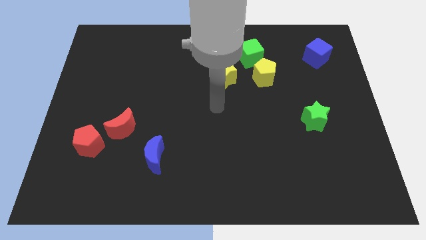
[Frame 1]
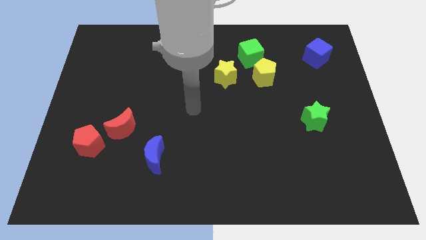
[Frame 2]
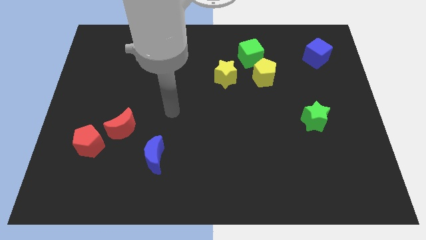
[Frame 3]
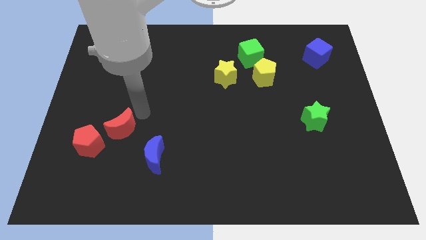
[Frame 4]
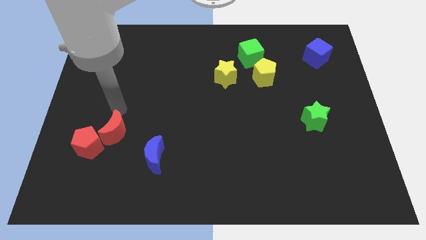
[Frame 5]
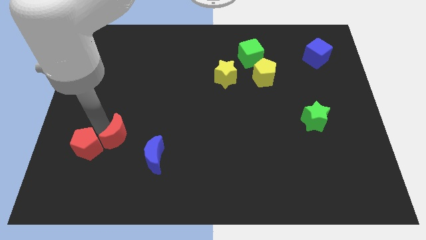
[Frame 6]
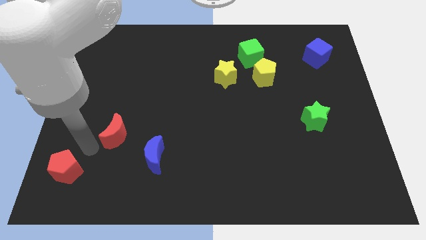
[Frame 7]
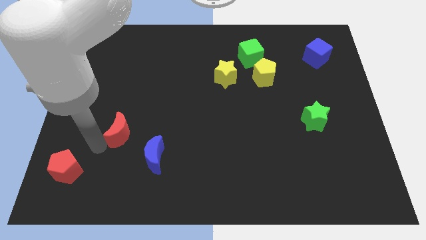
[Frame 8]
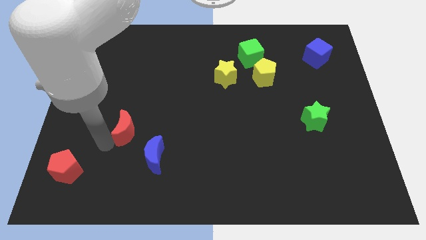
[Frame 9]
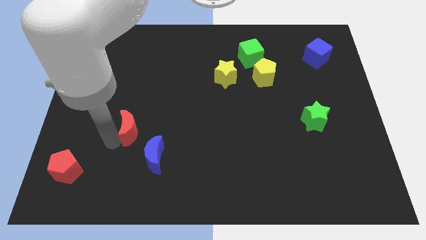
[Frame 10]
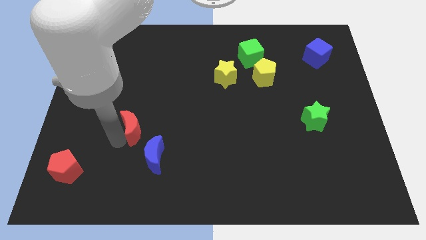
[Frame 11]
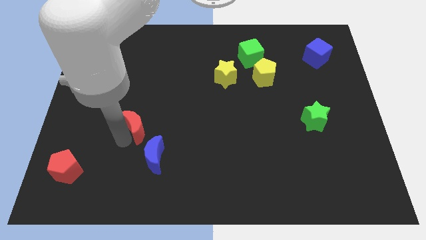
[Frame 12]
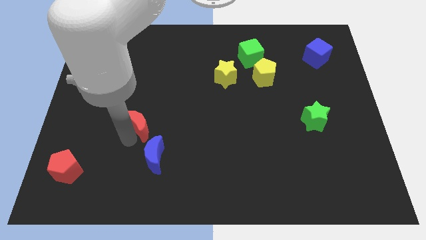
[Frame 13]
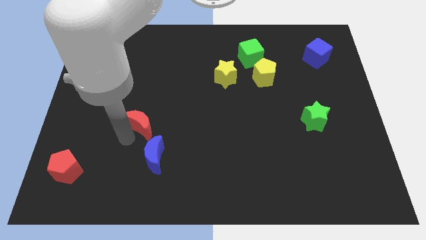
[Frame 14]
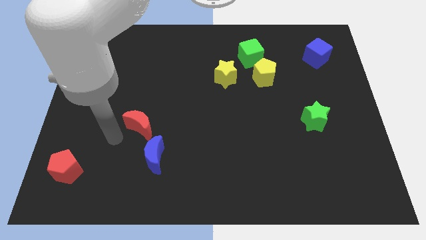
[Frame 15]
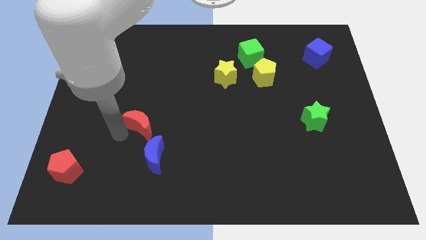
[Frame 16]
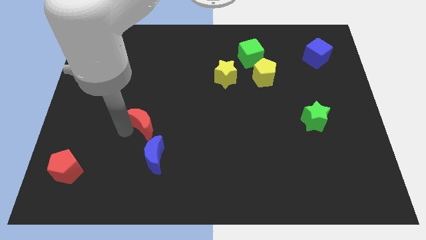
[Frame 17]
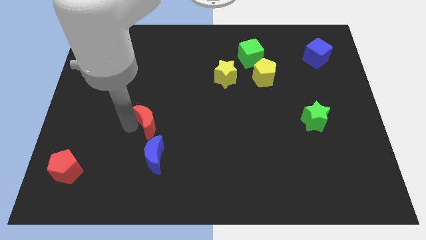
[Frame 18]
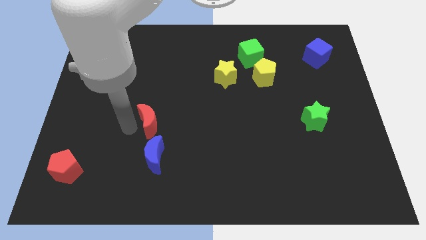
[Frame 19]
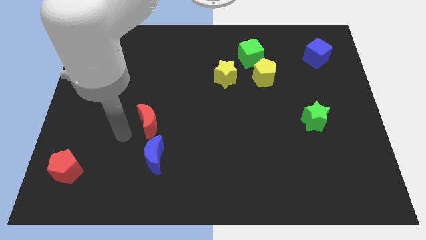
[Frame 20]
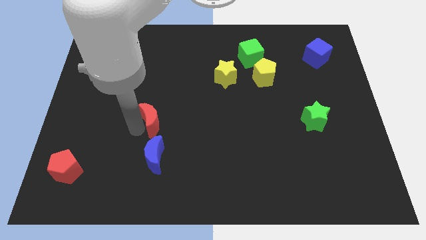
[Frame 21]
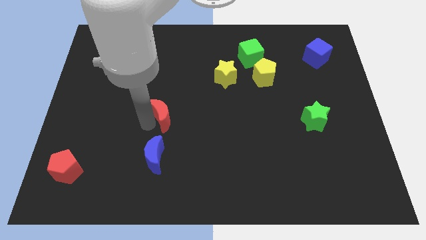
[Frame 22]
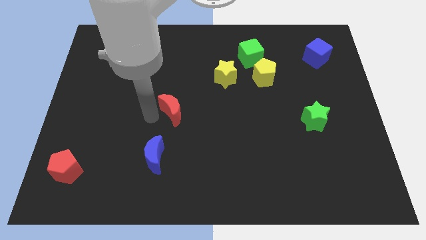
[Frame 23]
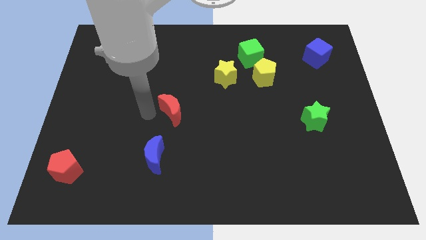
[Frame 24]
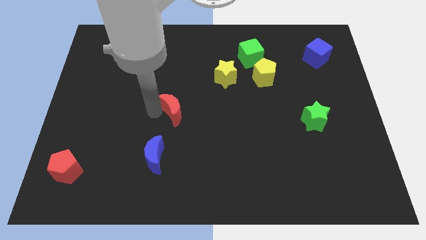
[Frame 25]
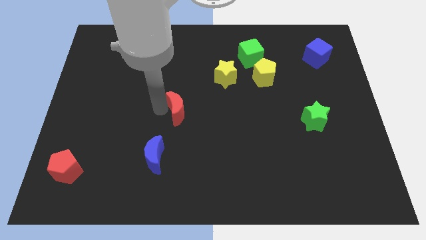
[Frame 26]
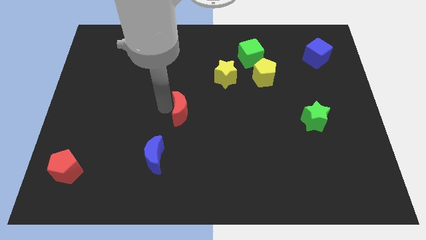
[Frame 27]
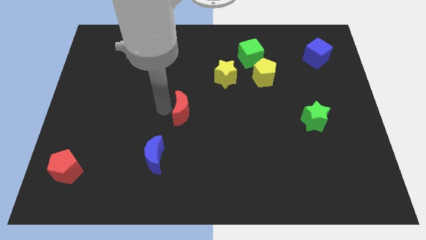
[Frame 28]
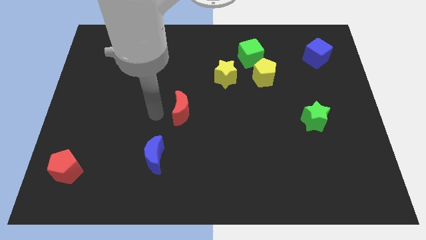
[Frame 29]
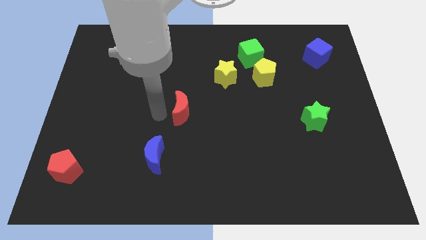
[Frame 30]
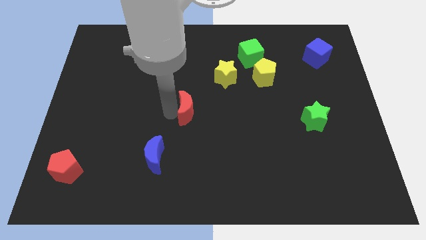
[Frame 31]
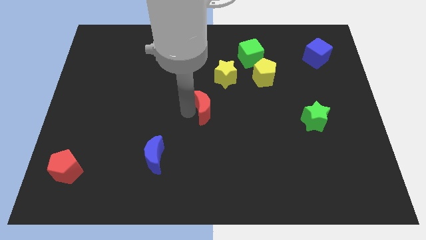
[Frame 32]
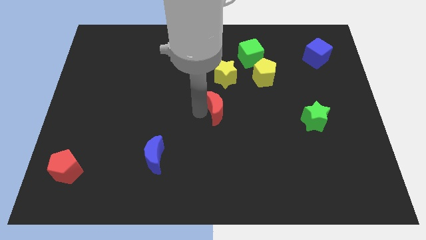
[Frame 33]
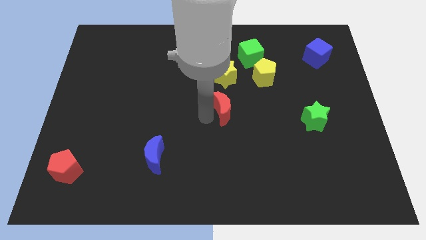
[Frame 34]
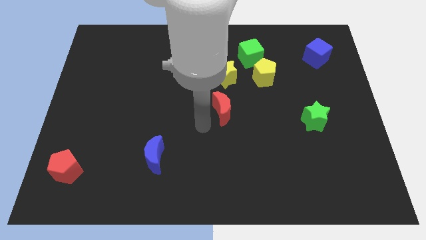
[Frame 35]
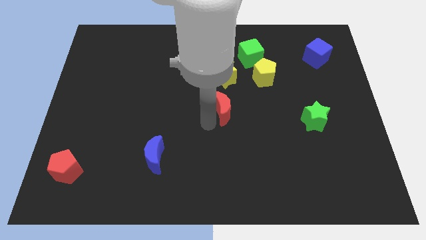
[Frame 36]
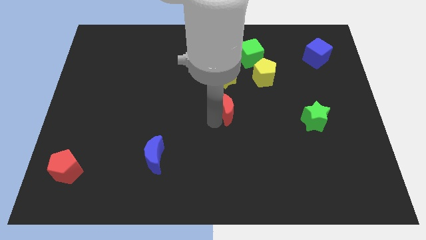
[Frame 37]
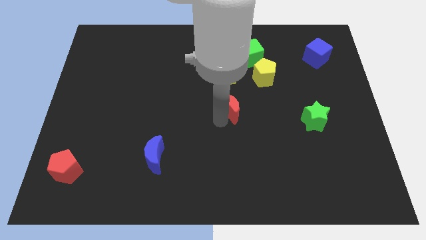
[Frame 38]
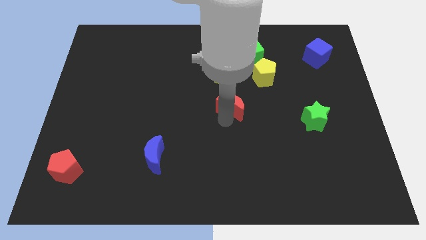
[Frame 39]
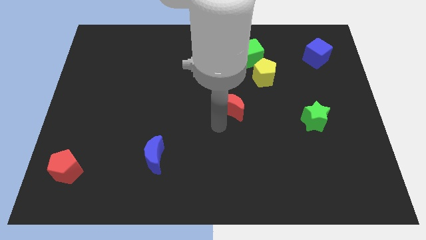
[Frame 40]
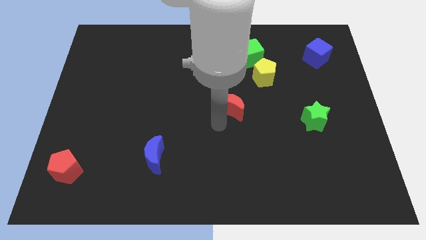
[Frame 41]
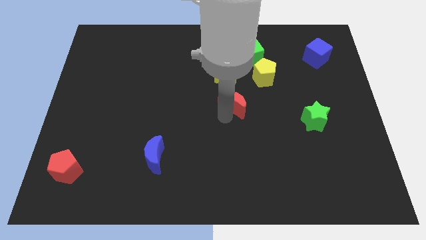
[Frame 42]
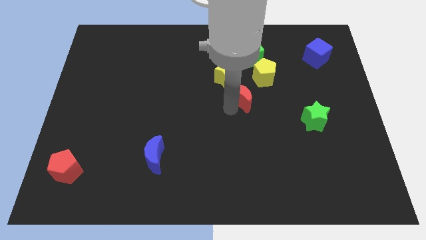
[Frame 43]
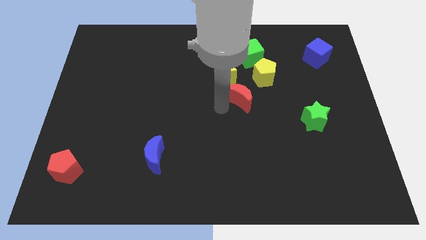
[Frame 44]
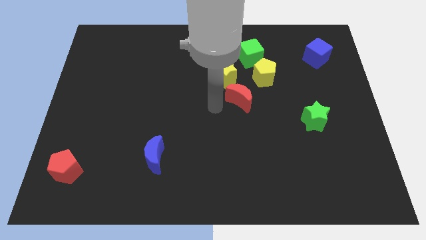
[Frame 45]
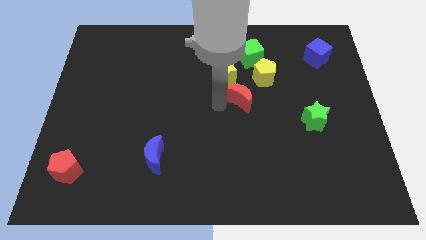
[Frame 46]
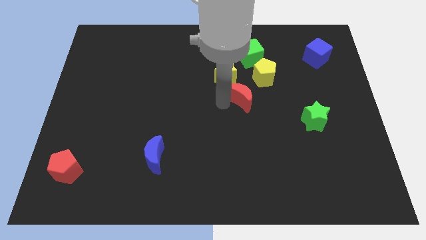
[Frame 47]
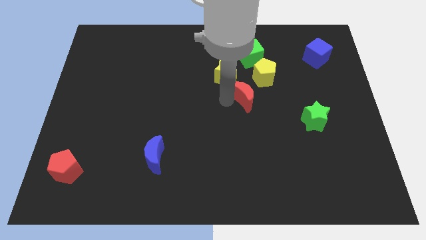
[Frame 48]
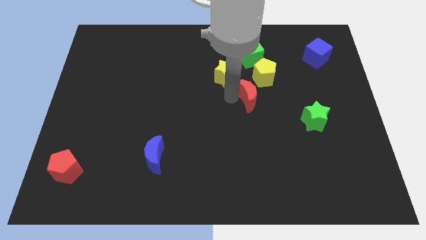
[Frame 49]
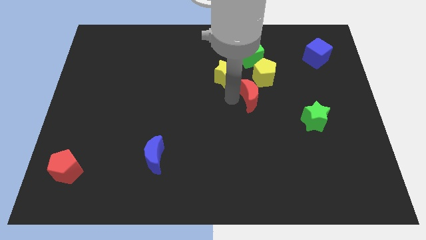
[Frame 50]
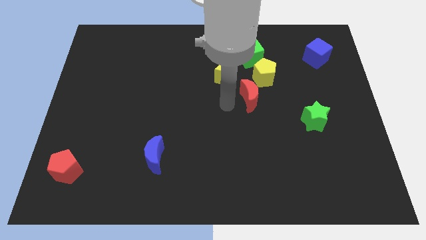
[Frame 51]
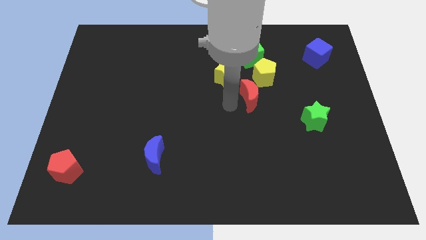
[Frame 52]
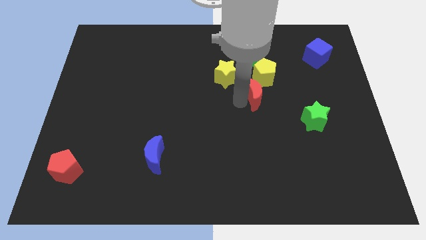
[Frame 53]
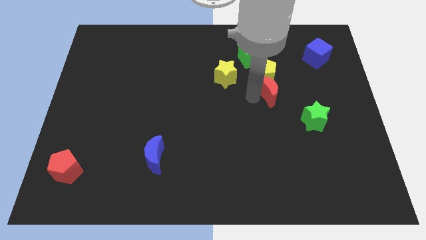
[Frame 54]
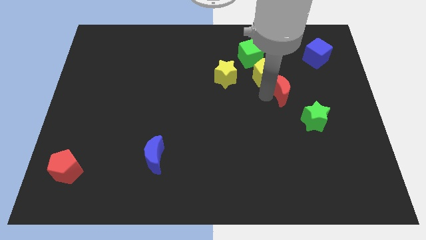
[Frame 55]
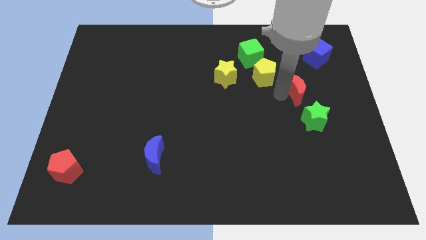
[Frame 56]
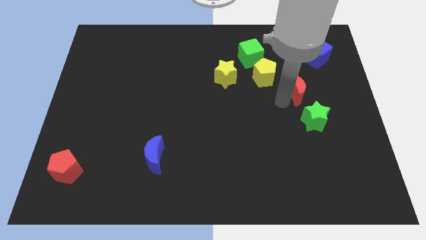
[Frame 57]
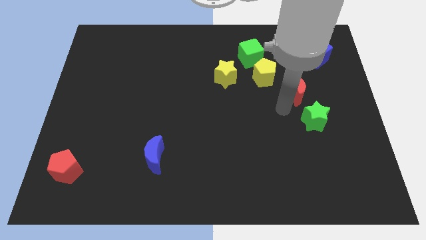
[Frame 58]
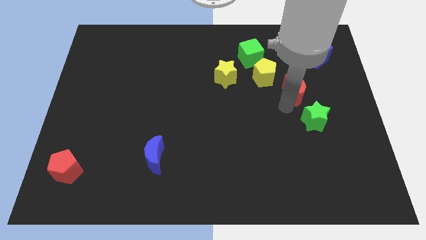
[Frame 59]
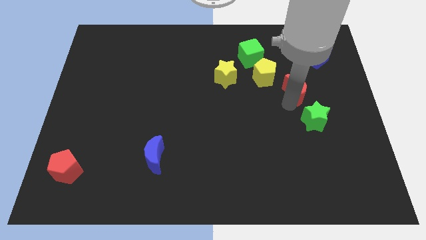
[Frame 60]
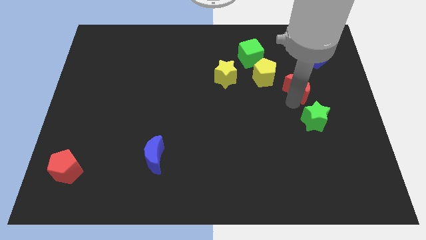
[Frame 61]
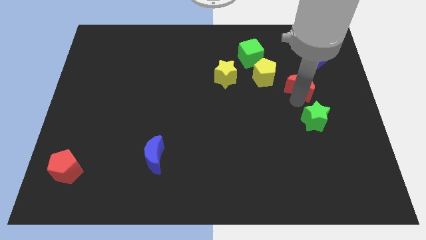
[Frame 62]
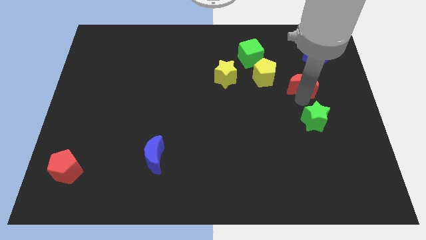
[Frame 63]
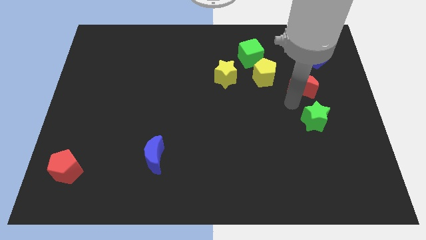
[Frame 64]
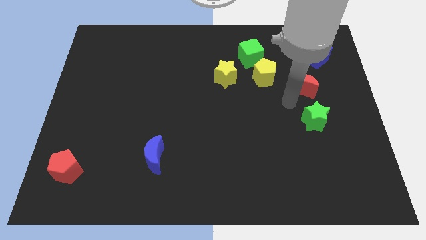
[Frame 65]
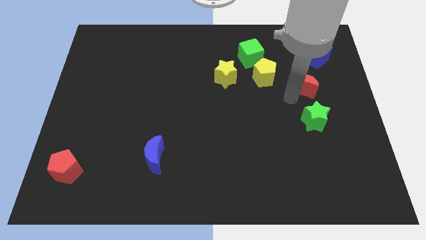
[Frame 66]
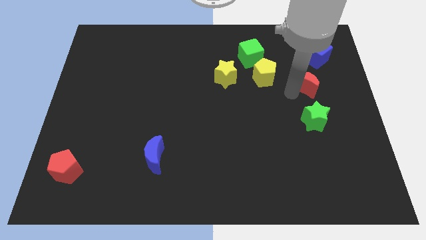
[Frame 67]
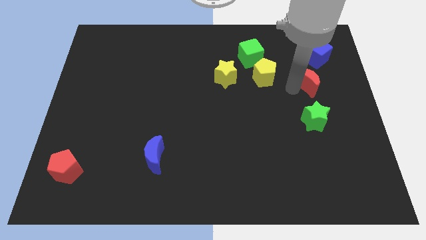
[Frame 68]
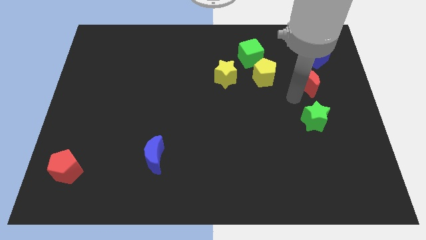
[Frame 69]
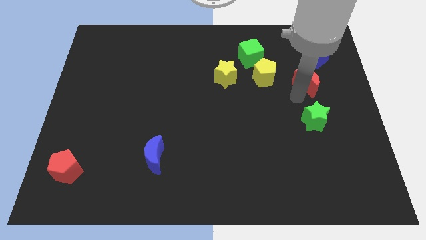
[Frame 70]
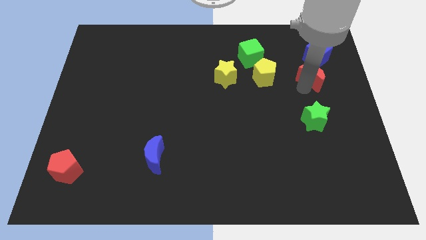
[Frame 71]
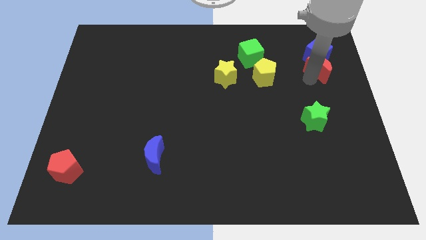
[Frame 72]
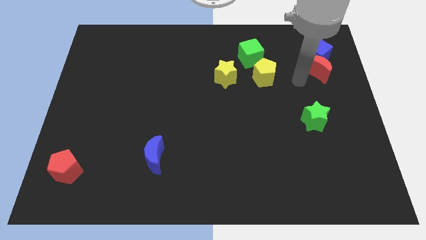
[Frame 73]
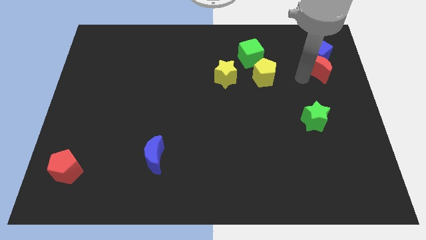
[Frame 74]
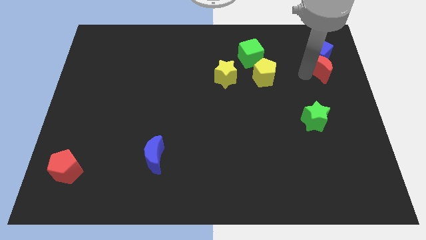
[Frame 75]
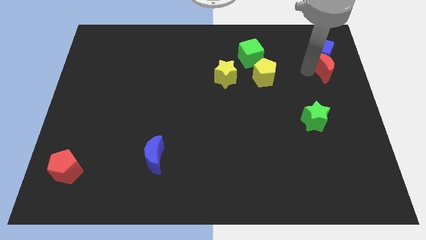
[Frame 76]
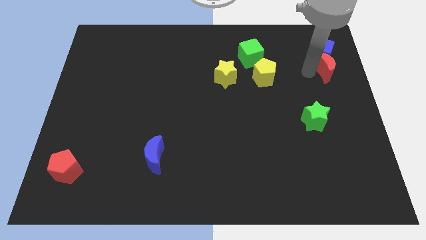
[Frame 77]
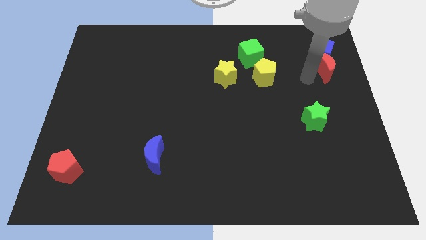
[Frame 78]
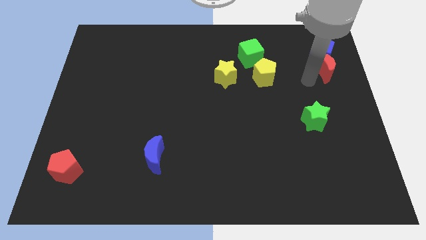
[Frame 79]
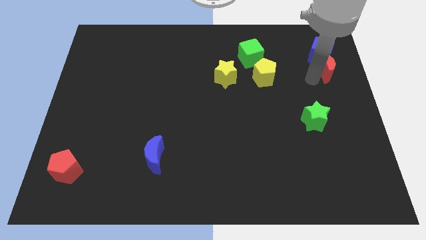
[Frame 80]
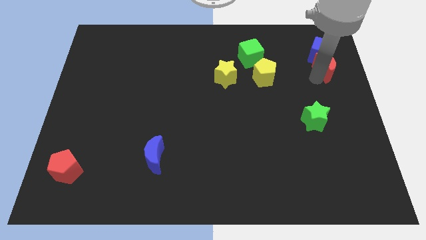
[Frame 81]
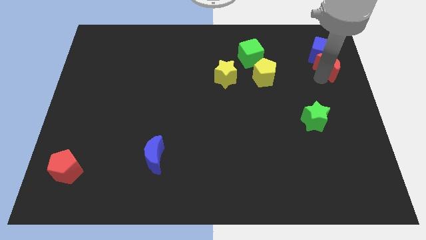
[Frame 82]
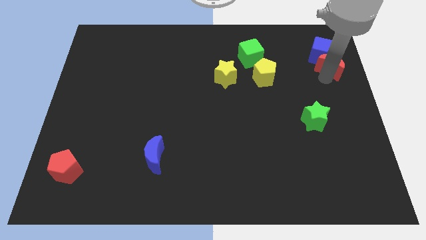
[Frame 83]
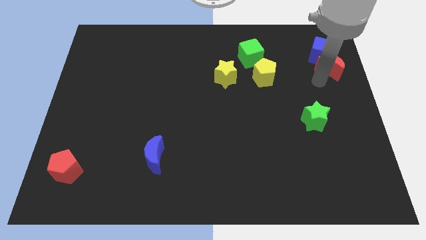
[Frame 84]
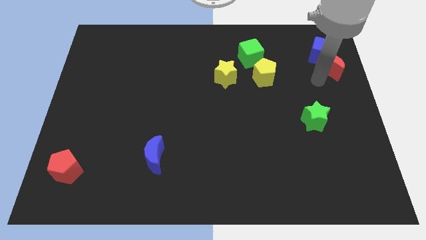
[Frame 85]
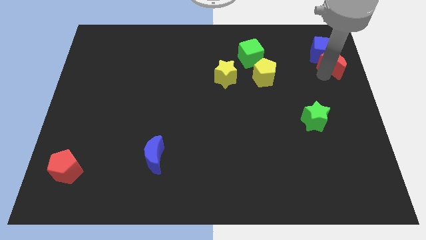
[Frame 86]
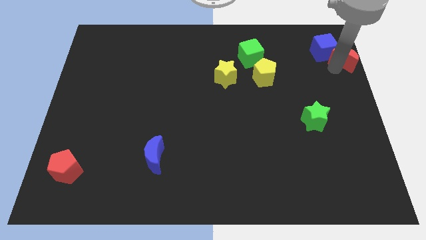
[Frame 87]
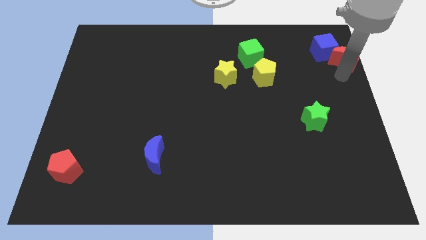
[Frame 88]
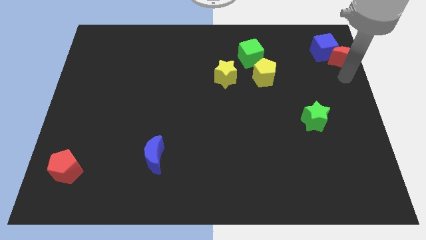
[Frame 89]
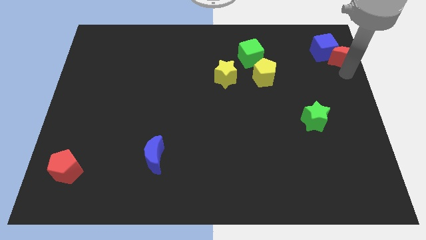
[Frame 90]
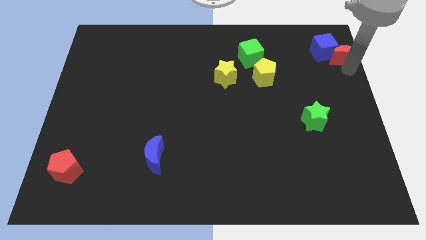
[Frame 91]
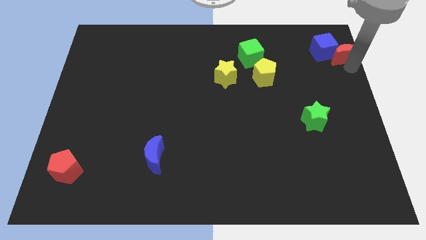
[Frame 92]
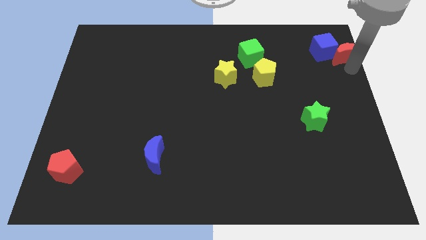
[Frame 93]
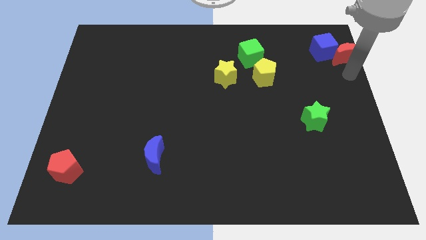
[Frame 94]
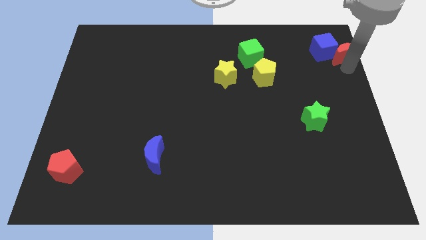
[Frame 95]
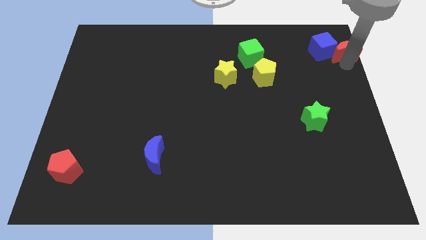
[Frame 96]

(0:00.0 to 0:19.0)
slide the red moon to the top right corner
